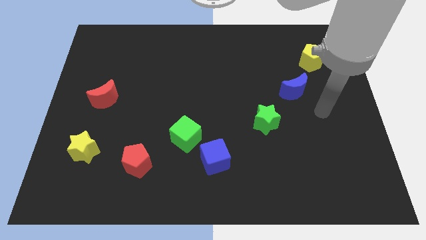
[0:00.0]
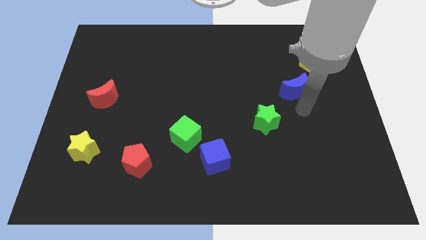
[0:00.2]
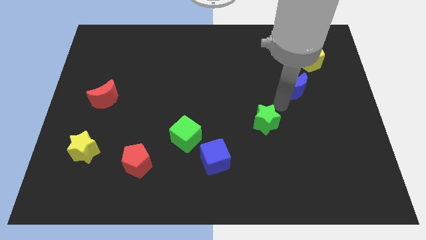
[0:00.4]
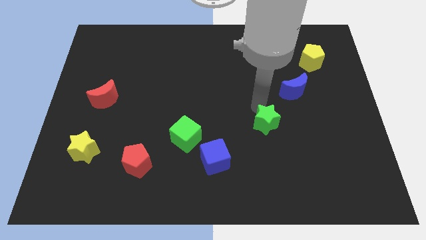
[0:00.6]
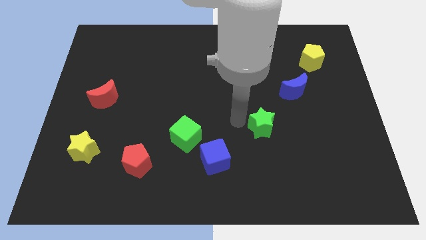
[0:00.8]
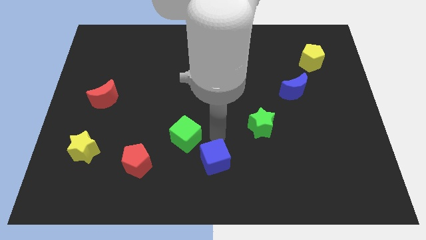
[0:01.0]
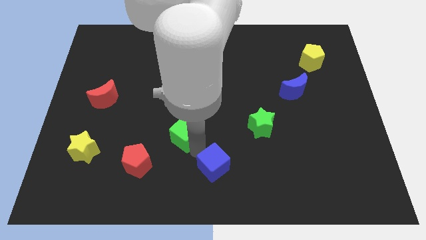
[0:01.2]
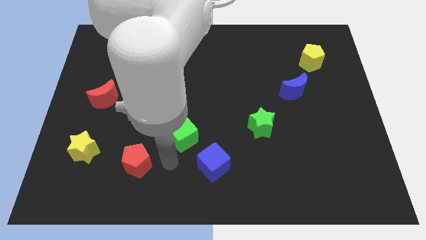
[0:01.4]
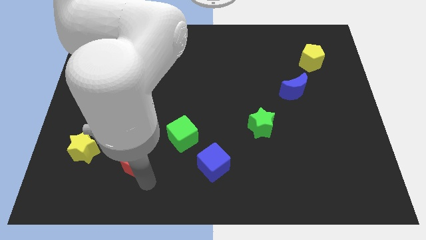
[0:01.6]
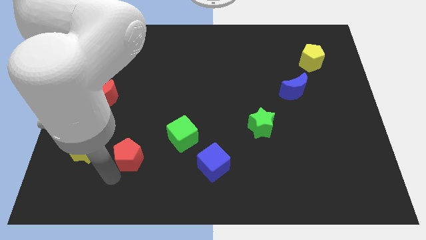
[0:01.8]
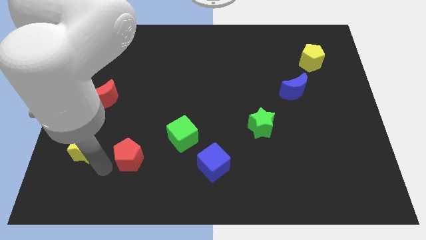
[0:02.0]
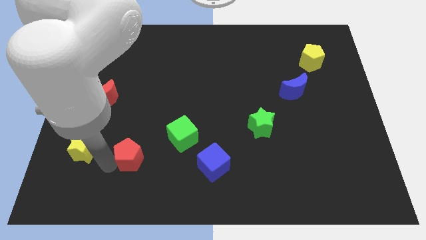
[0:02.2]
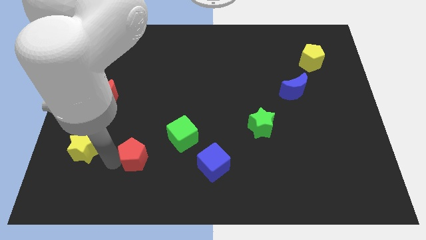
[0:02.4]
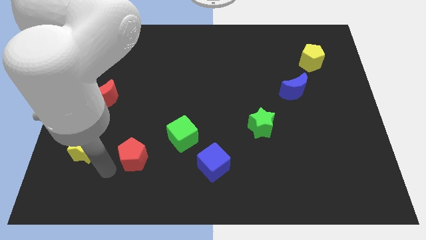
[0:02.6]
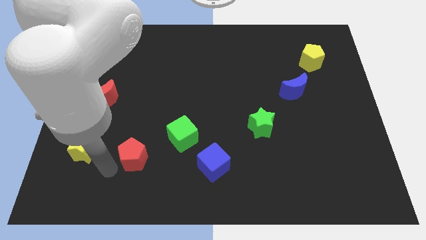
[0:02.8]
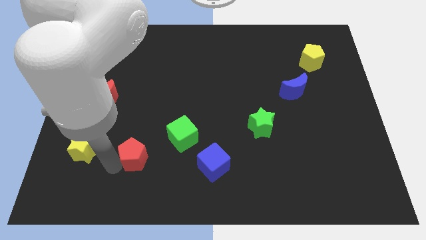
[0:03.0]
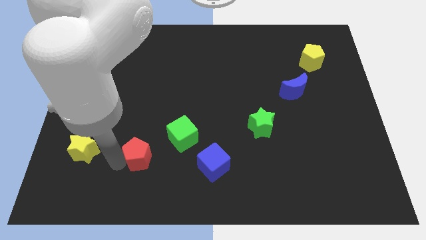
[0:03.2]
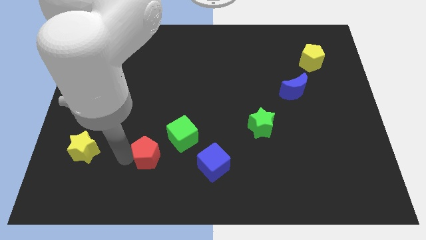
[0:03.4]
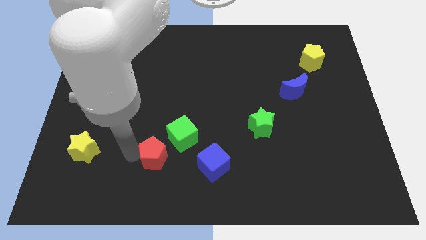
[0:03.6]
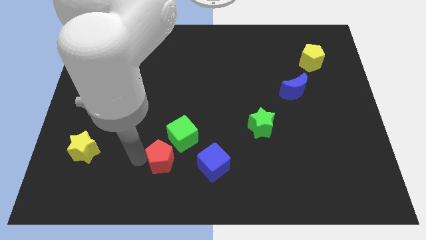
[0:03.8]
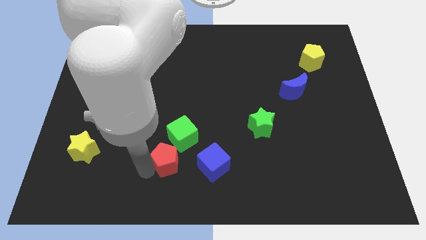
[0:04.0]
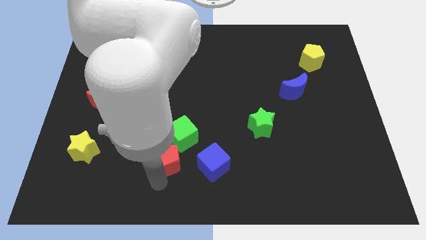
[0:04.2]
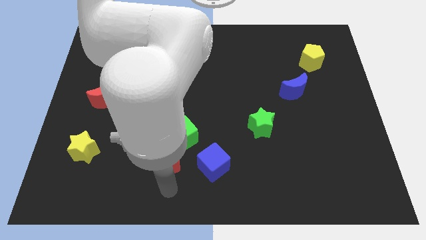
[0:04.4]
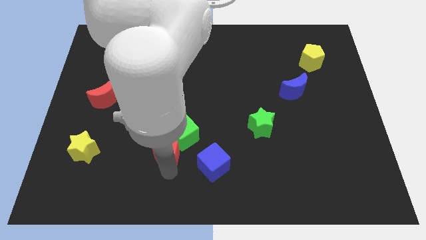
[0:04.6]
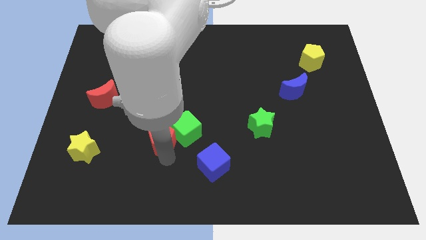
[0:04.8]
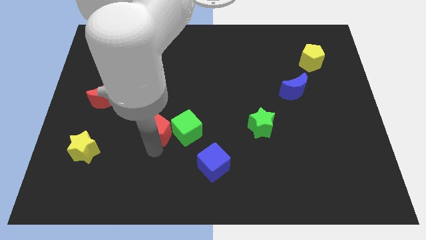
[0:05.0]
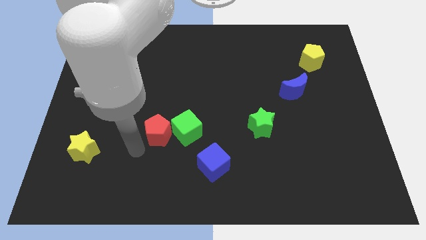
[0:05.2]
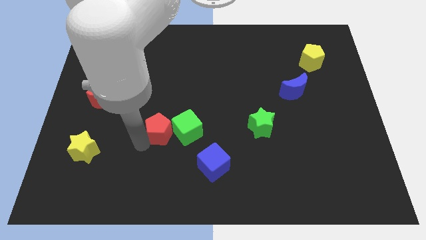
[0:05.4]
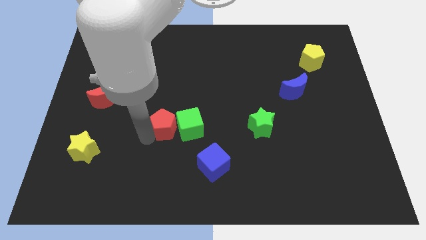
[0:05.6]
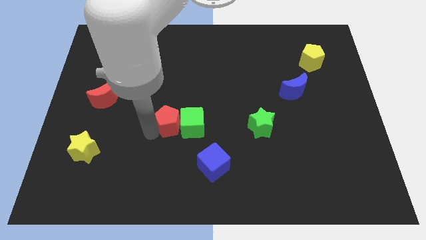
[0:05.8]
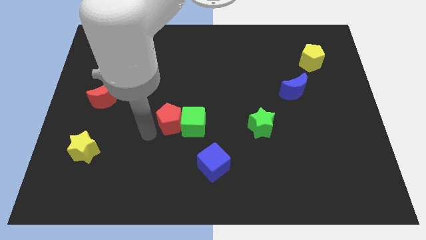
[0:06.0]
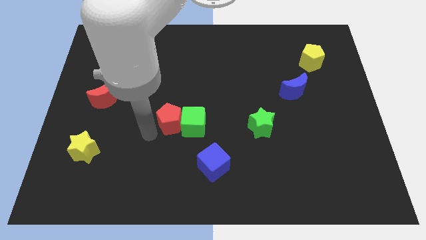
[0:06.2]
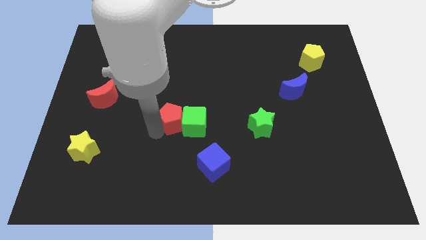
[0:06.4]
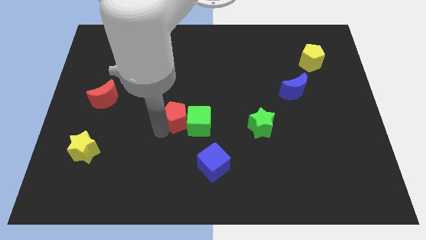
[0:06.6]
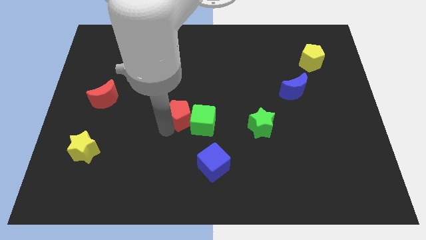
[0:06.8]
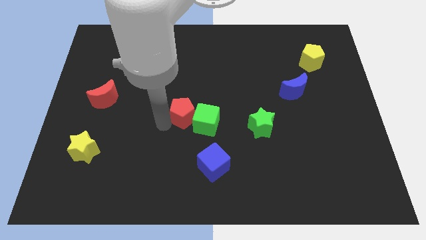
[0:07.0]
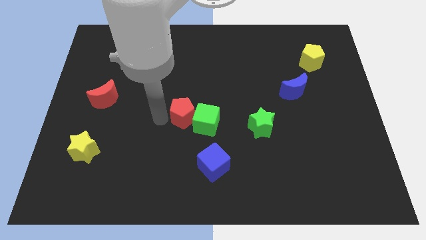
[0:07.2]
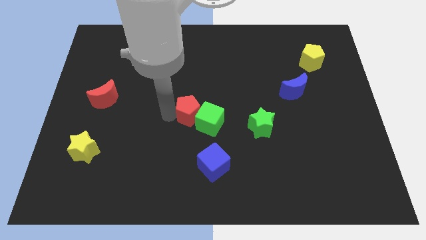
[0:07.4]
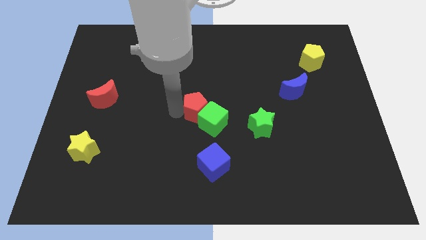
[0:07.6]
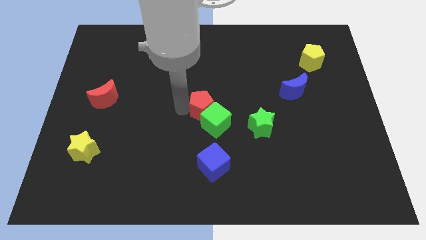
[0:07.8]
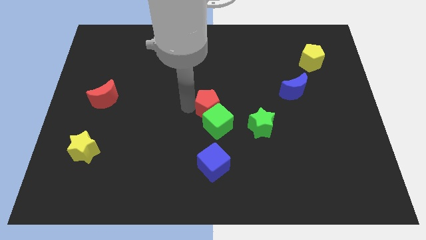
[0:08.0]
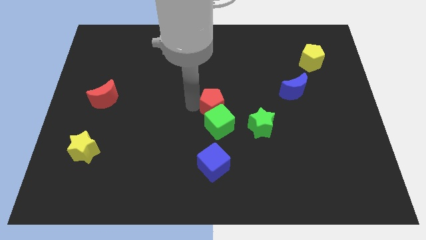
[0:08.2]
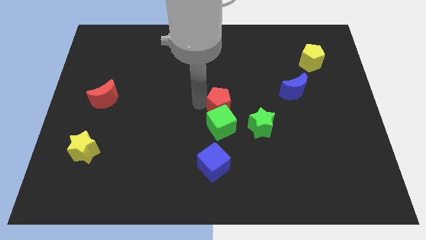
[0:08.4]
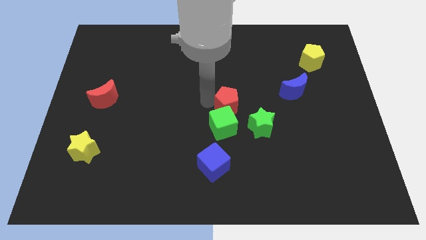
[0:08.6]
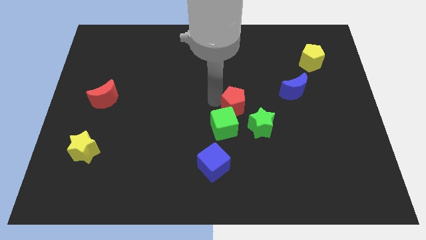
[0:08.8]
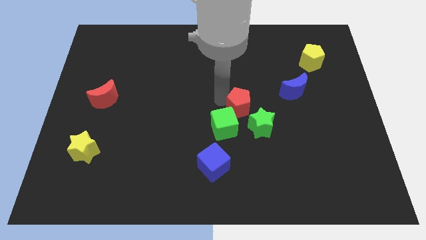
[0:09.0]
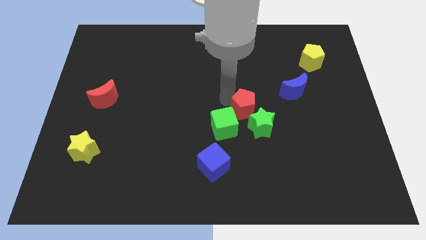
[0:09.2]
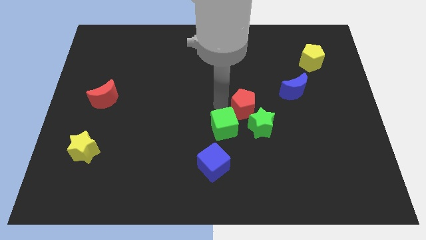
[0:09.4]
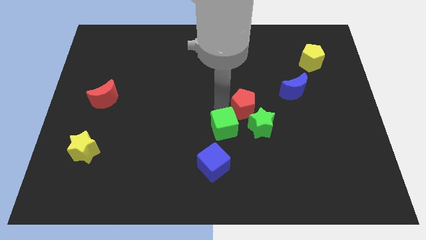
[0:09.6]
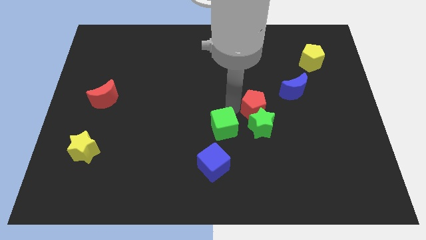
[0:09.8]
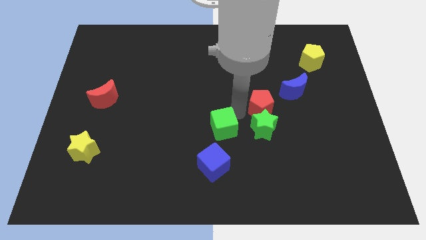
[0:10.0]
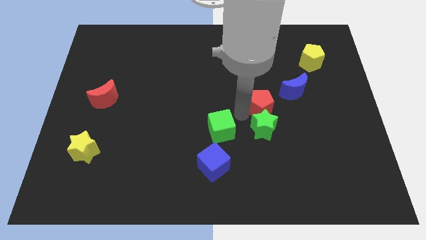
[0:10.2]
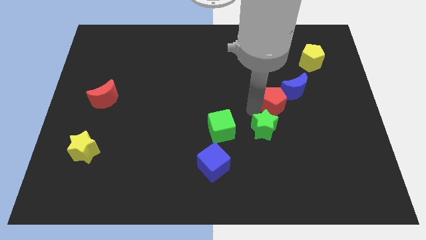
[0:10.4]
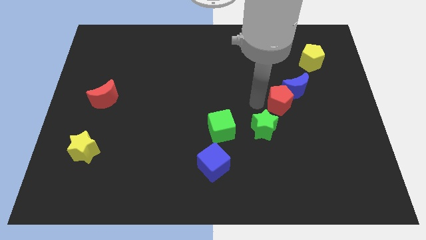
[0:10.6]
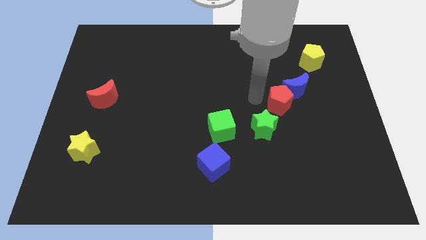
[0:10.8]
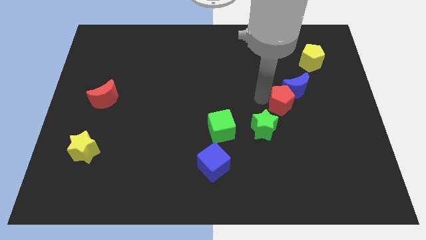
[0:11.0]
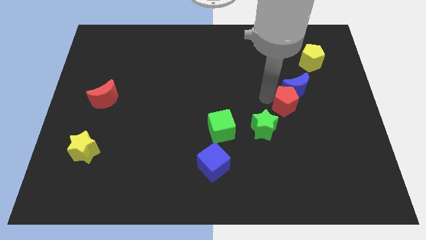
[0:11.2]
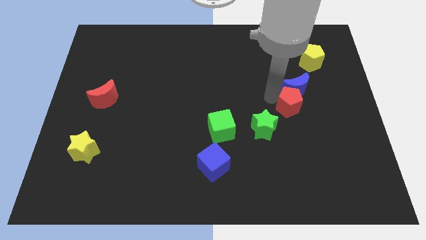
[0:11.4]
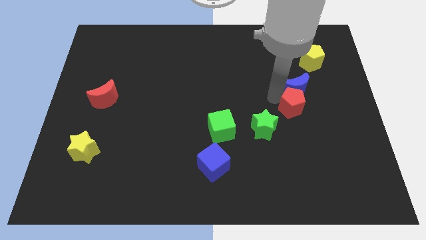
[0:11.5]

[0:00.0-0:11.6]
slide the red pentagon to the bottom right side of the blue moon
